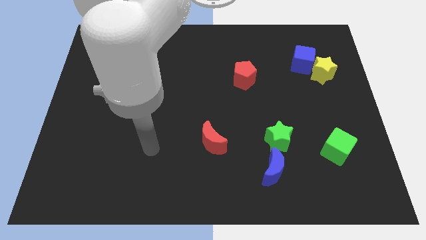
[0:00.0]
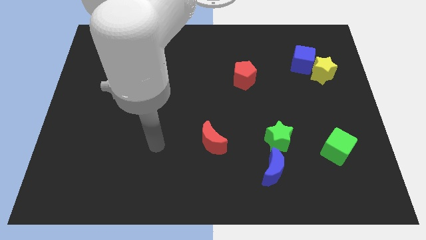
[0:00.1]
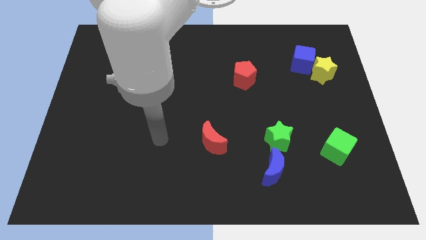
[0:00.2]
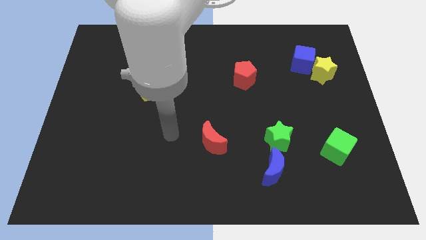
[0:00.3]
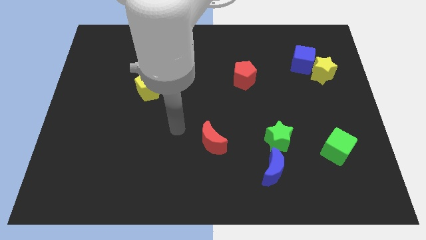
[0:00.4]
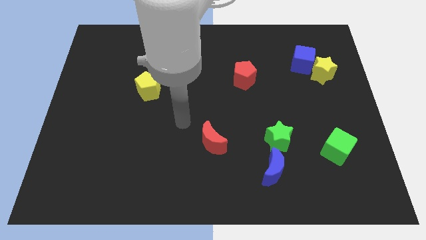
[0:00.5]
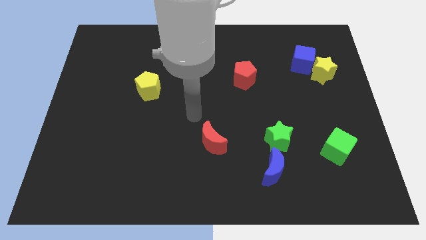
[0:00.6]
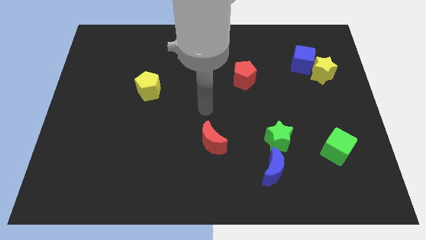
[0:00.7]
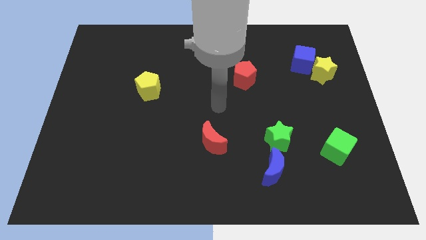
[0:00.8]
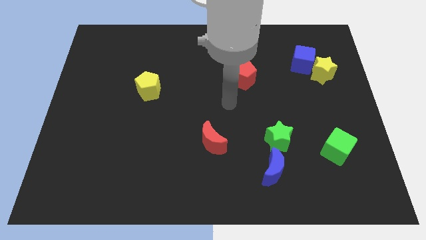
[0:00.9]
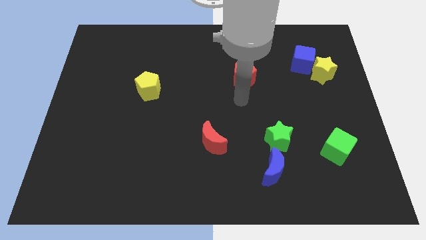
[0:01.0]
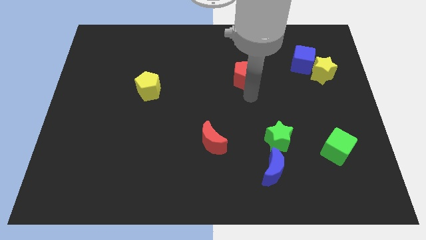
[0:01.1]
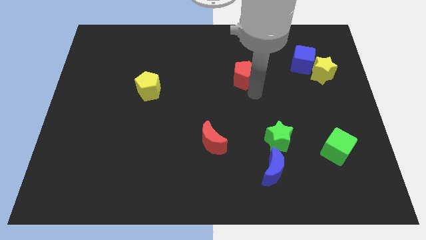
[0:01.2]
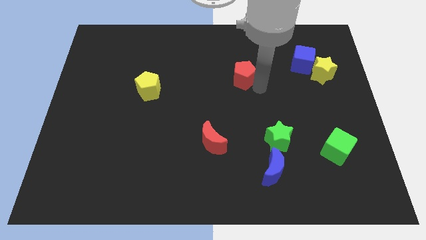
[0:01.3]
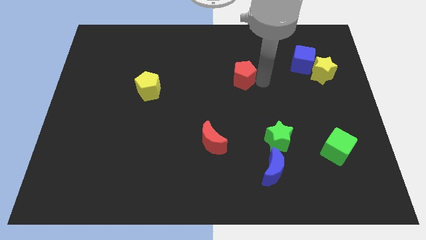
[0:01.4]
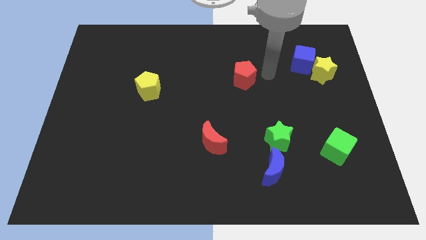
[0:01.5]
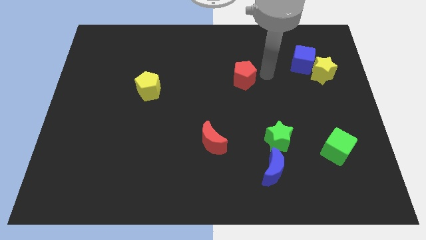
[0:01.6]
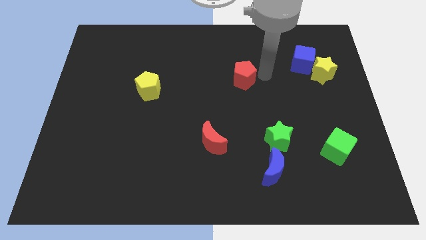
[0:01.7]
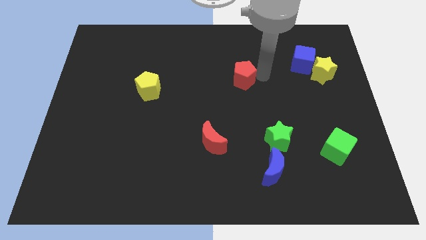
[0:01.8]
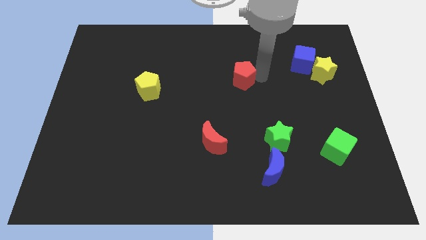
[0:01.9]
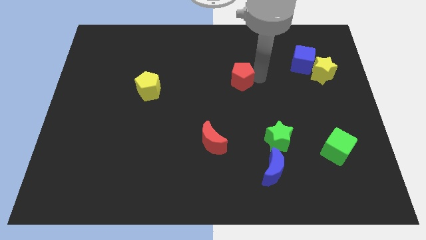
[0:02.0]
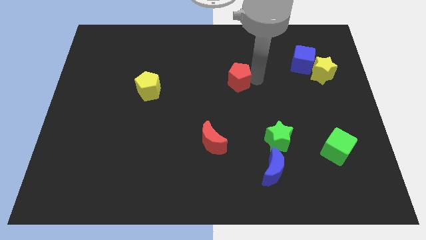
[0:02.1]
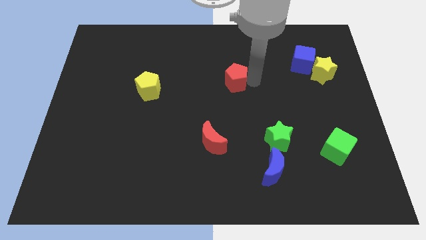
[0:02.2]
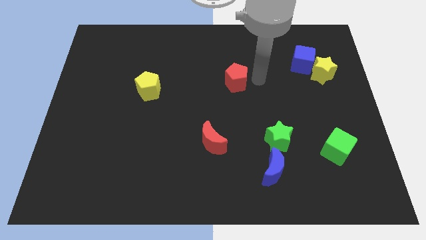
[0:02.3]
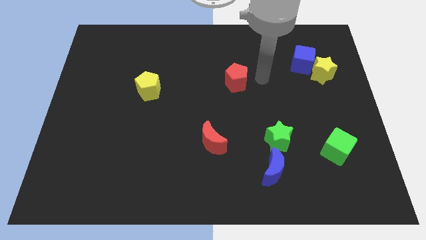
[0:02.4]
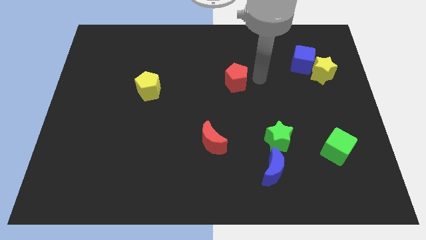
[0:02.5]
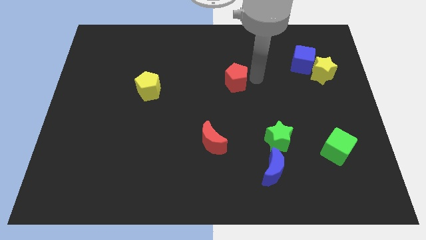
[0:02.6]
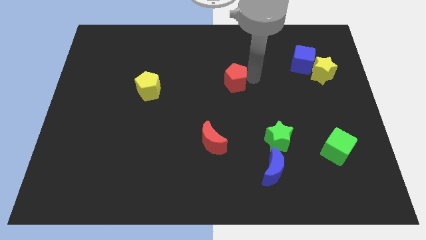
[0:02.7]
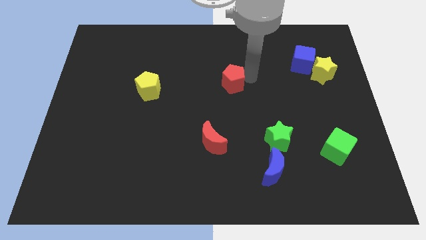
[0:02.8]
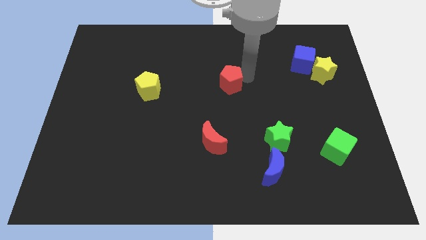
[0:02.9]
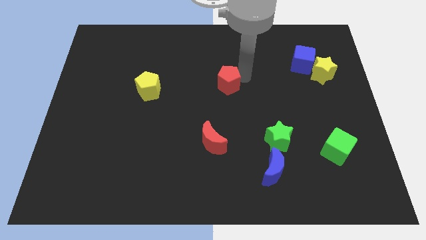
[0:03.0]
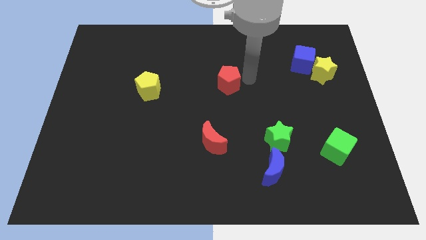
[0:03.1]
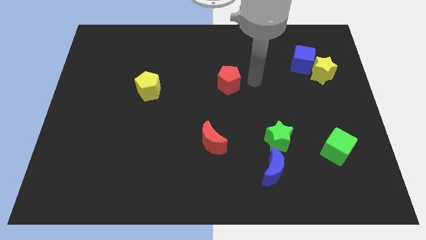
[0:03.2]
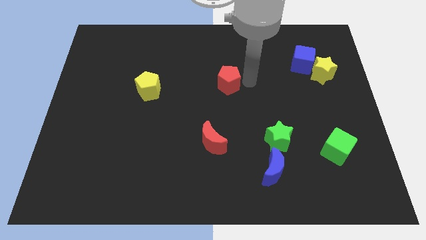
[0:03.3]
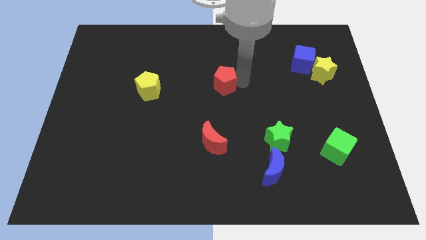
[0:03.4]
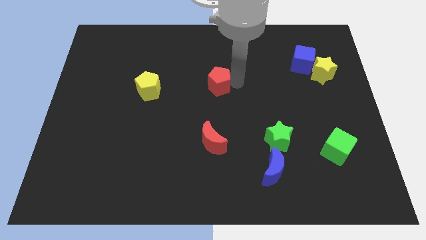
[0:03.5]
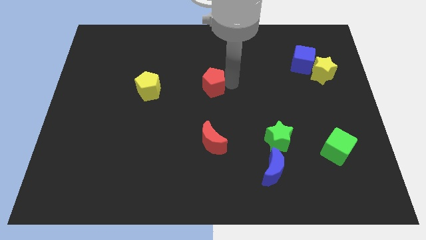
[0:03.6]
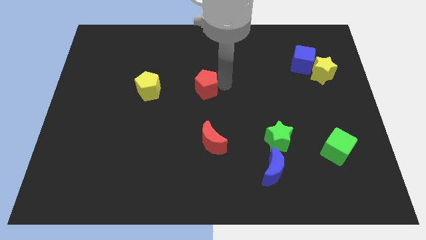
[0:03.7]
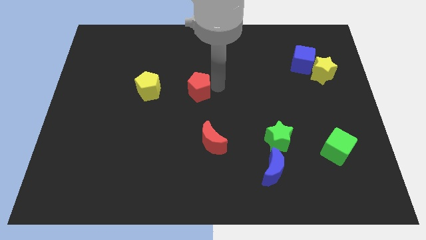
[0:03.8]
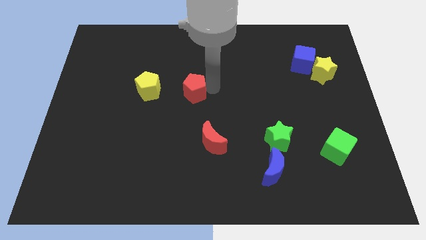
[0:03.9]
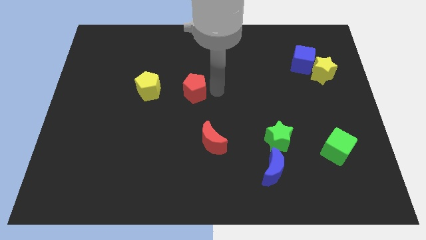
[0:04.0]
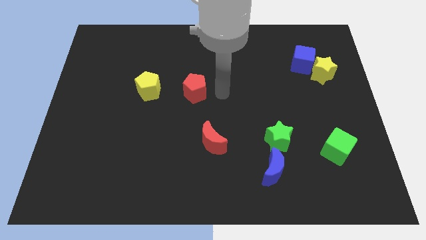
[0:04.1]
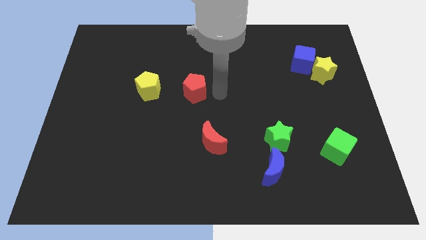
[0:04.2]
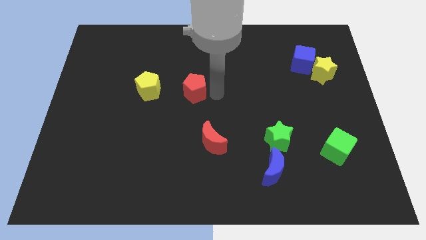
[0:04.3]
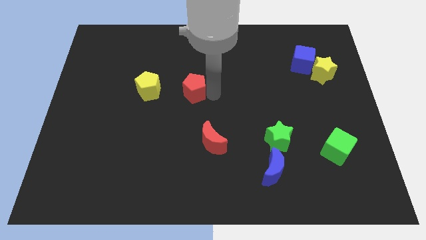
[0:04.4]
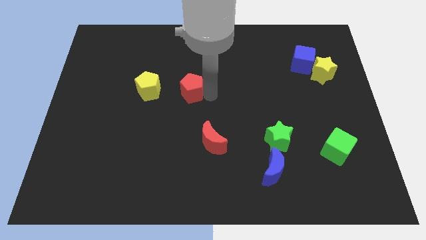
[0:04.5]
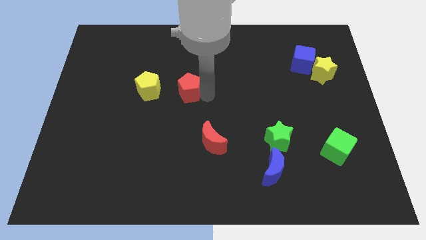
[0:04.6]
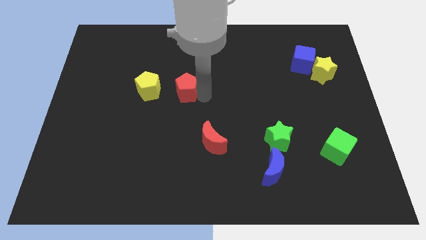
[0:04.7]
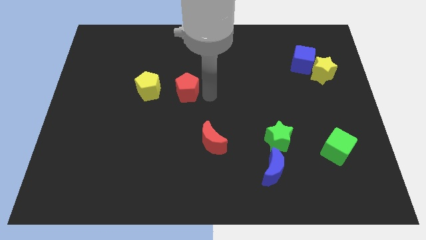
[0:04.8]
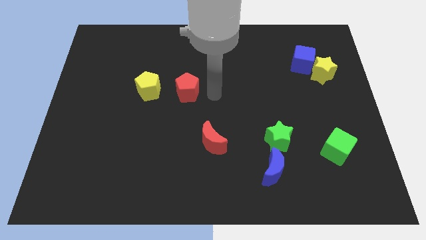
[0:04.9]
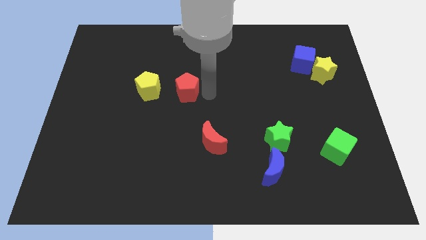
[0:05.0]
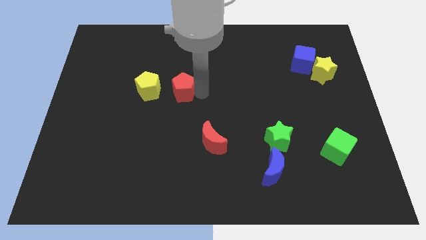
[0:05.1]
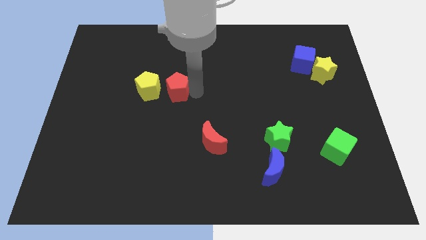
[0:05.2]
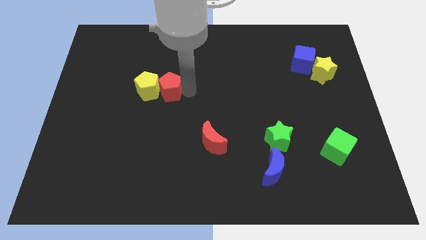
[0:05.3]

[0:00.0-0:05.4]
push the red pentagon next to the yellow pentagon

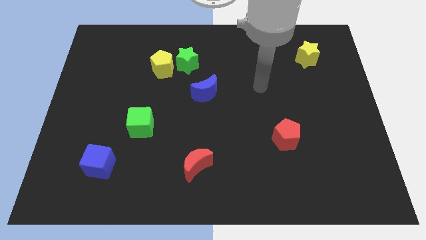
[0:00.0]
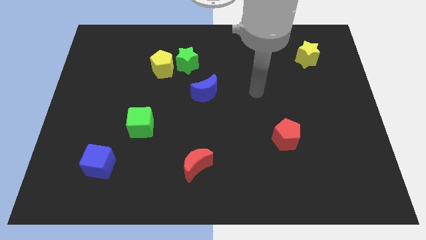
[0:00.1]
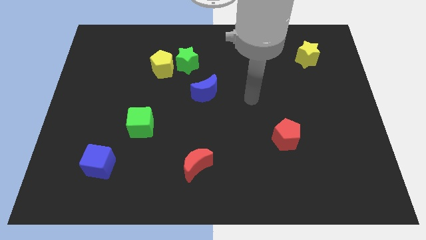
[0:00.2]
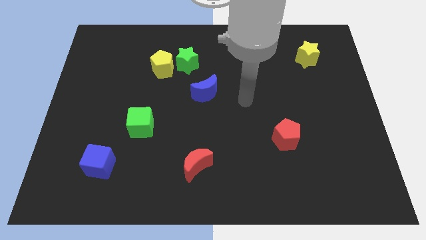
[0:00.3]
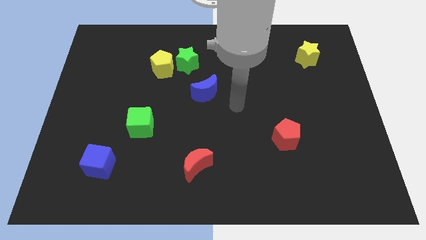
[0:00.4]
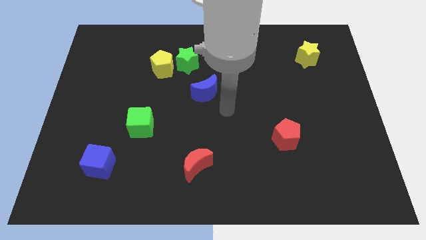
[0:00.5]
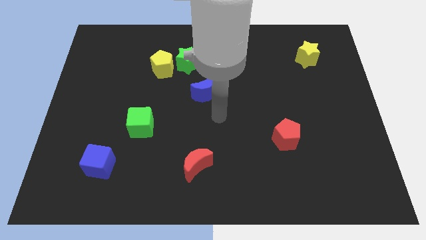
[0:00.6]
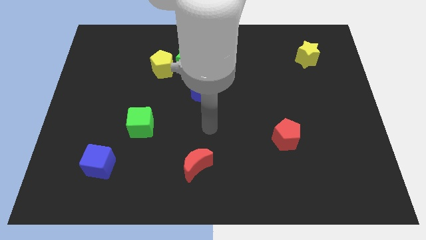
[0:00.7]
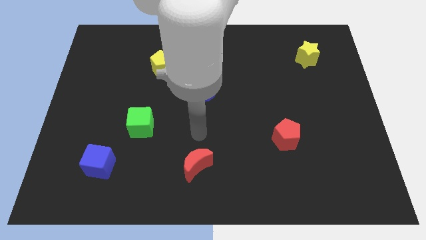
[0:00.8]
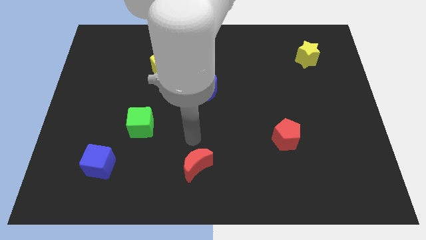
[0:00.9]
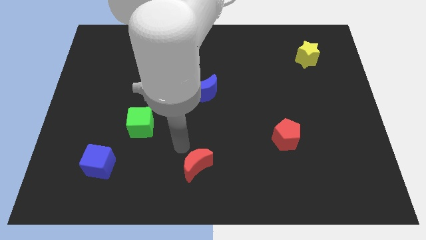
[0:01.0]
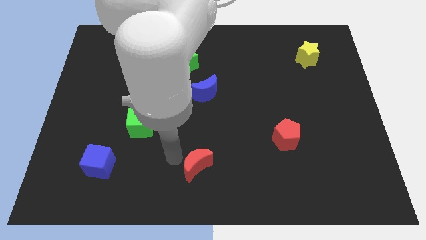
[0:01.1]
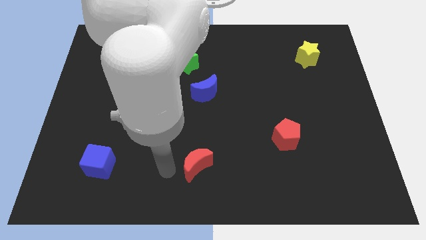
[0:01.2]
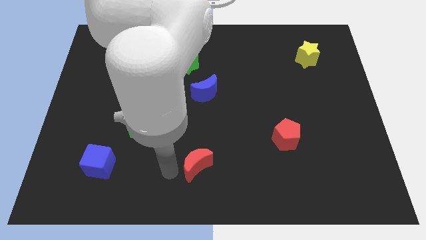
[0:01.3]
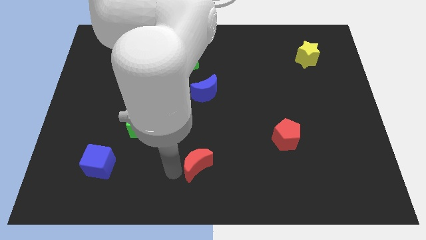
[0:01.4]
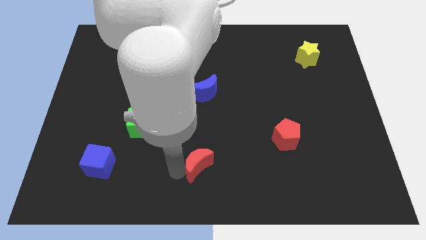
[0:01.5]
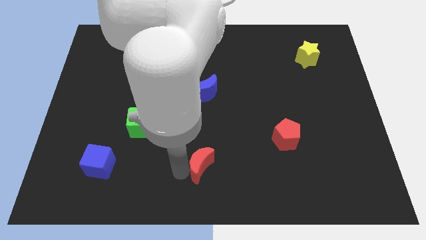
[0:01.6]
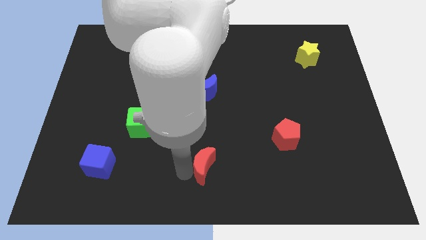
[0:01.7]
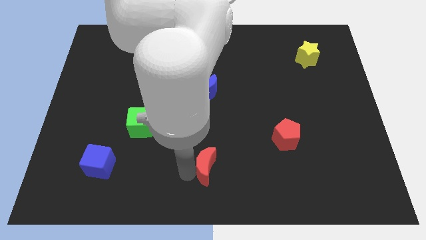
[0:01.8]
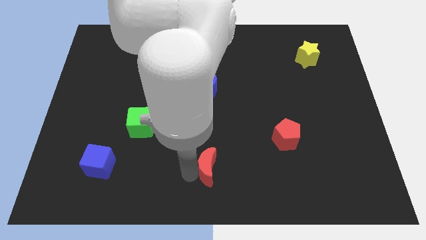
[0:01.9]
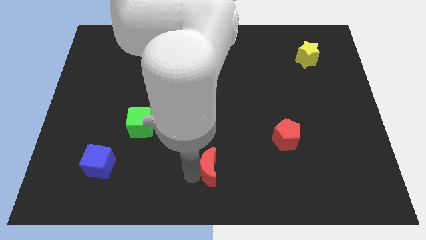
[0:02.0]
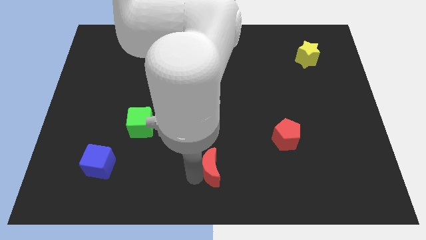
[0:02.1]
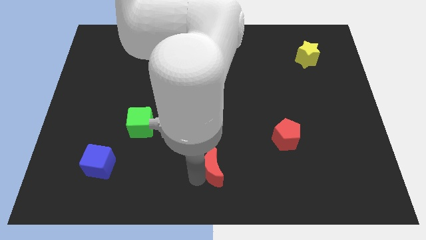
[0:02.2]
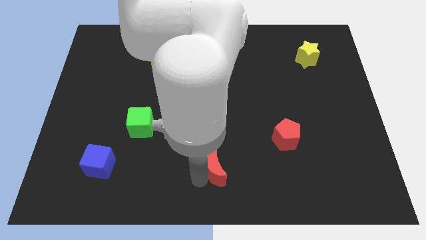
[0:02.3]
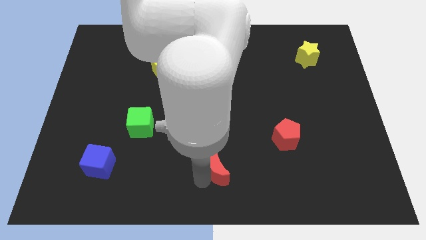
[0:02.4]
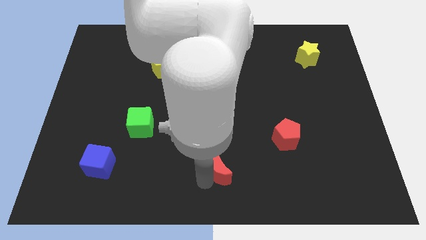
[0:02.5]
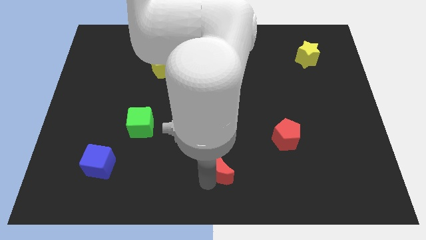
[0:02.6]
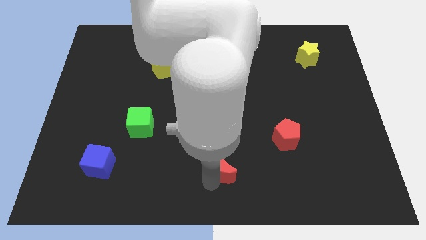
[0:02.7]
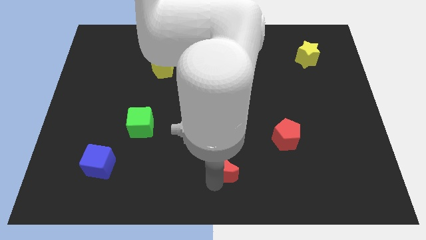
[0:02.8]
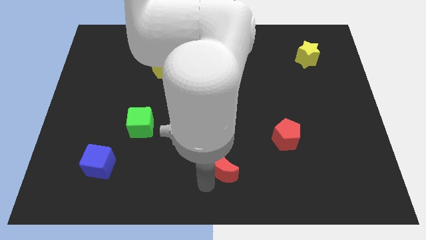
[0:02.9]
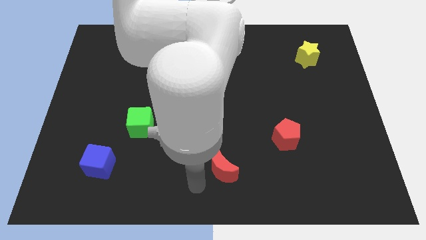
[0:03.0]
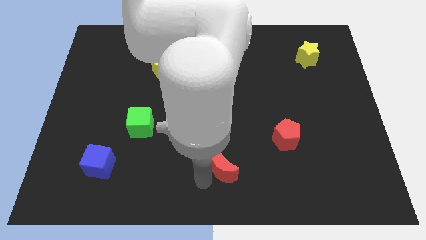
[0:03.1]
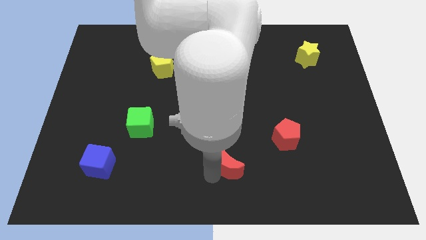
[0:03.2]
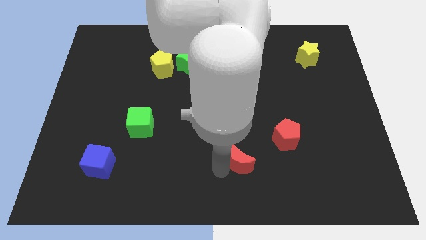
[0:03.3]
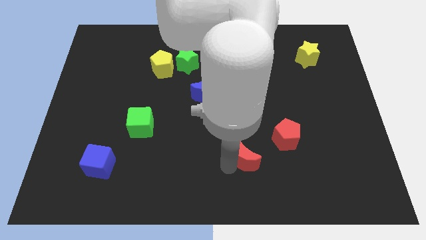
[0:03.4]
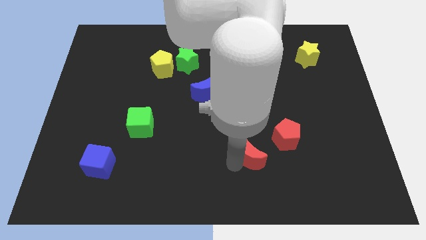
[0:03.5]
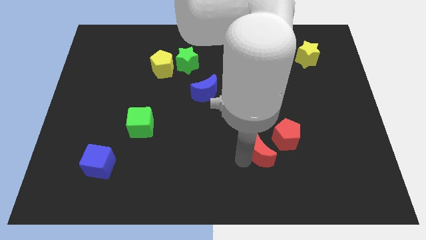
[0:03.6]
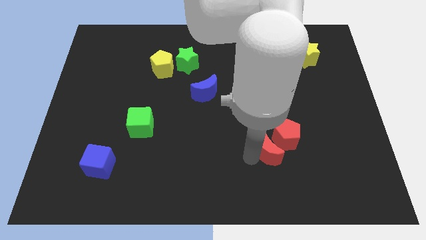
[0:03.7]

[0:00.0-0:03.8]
move the red moon to the red pentagon
